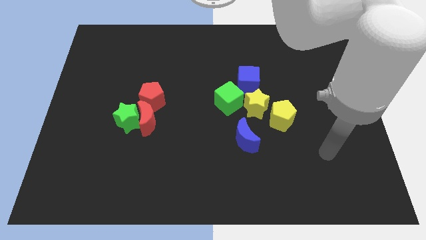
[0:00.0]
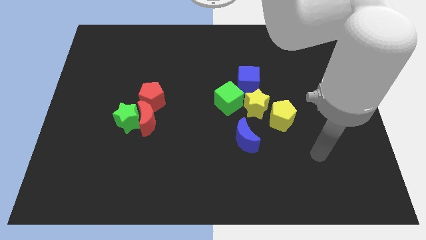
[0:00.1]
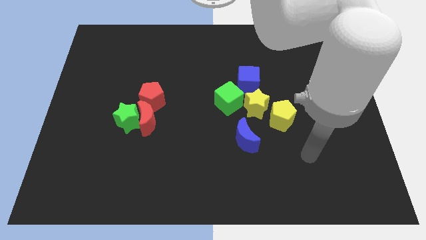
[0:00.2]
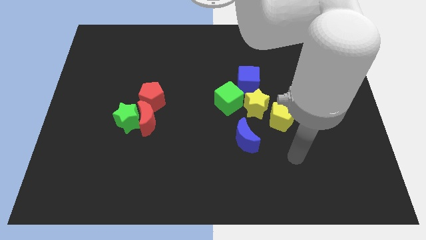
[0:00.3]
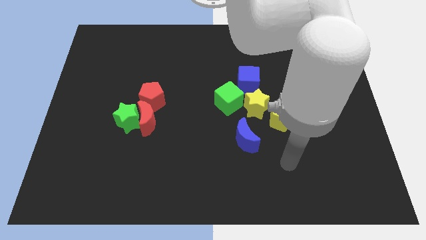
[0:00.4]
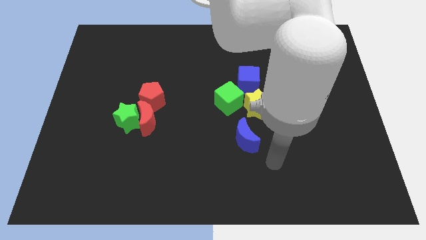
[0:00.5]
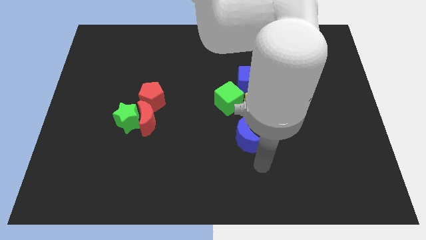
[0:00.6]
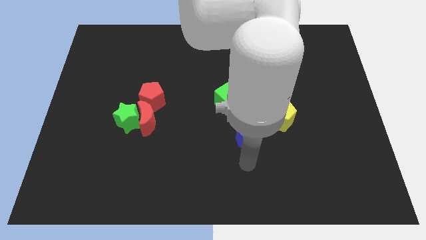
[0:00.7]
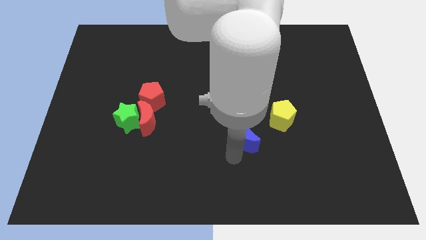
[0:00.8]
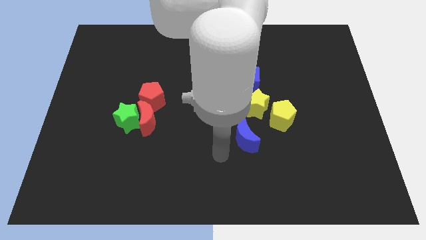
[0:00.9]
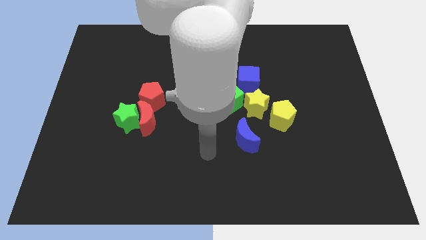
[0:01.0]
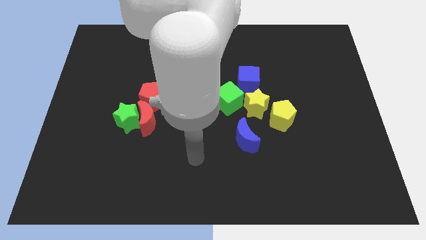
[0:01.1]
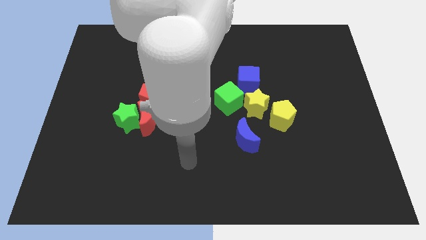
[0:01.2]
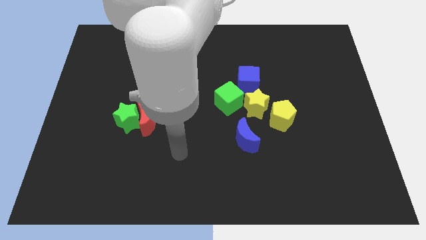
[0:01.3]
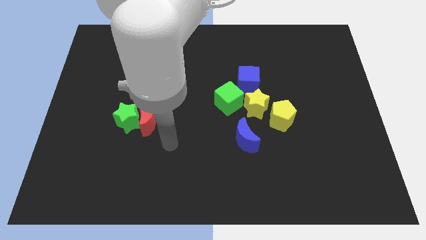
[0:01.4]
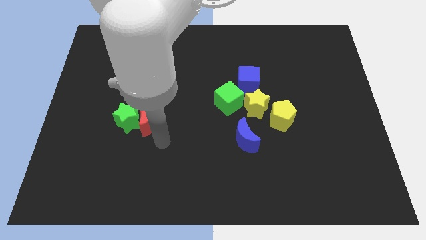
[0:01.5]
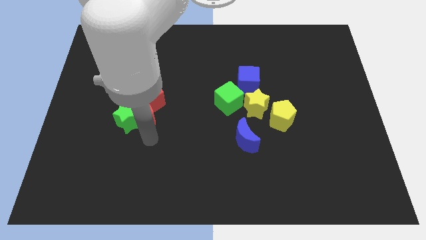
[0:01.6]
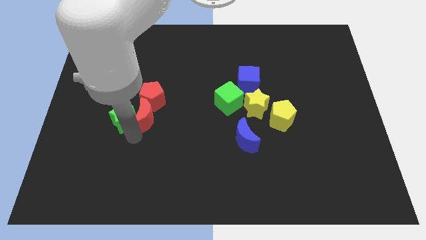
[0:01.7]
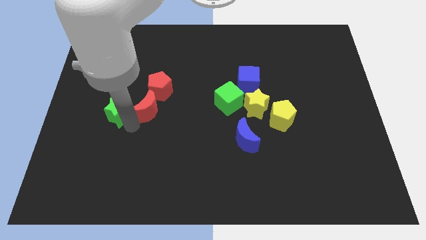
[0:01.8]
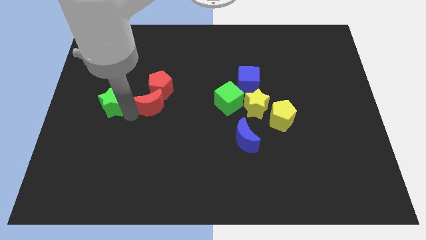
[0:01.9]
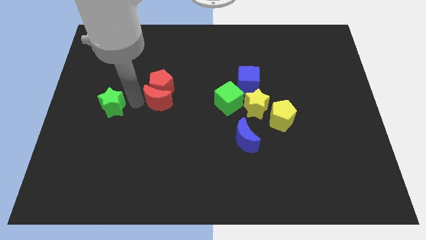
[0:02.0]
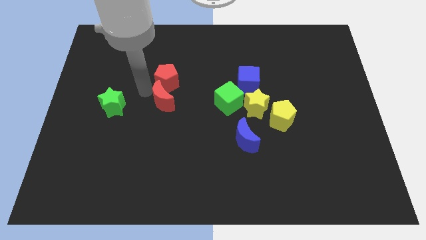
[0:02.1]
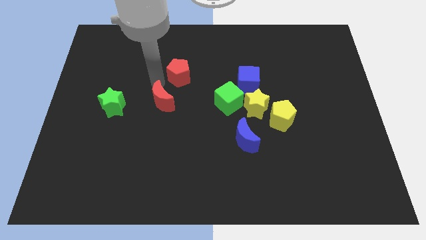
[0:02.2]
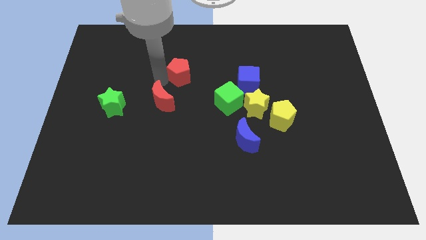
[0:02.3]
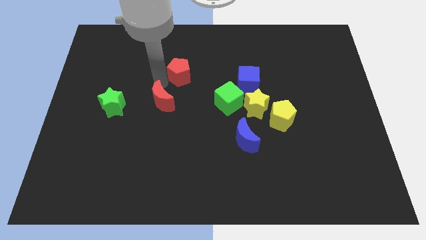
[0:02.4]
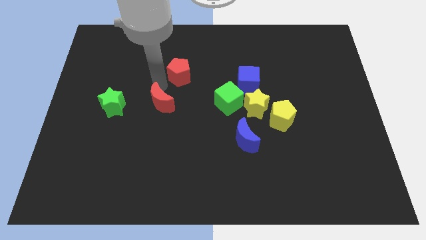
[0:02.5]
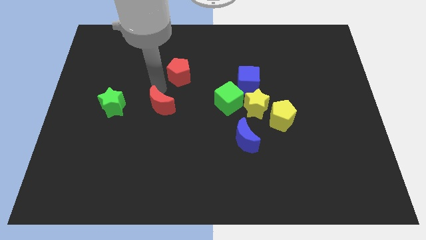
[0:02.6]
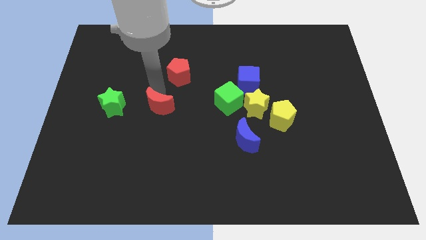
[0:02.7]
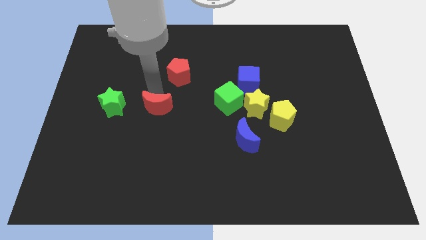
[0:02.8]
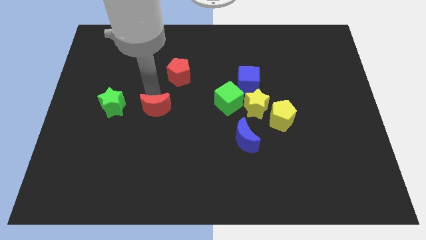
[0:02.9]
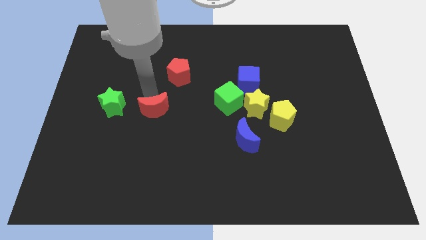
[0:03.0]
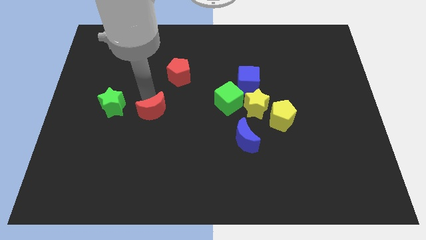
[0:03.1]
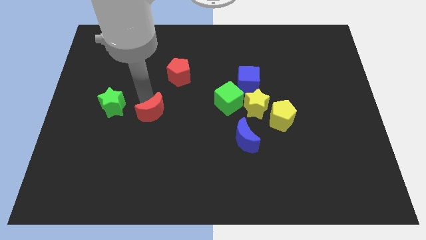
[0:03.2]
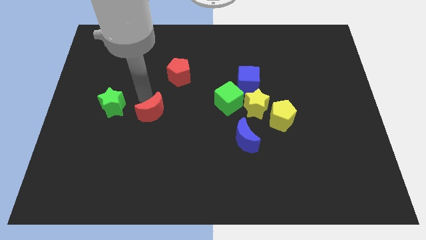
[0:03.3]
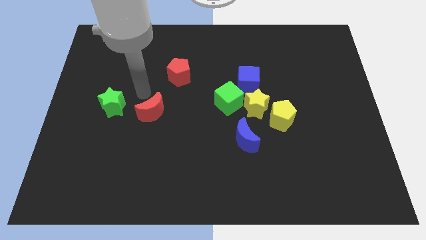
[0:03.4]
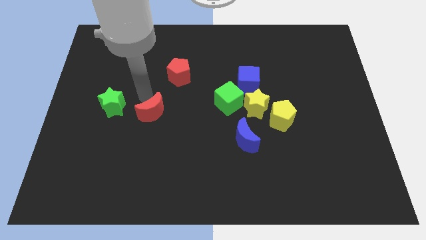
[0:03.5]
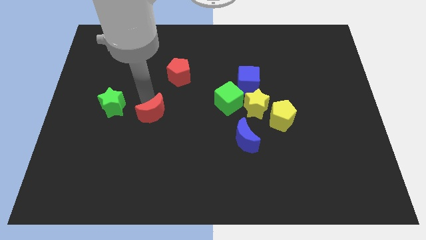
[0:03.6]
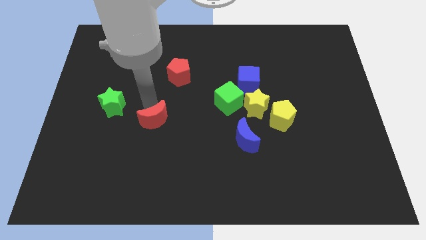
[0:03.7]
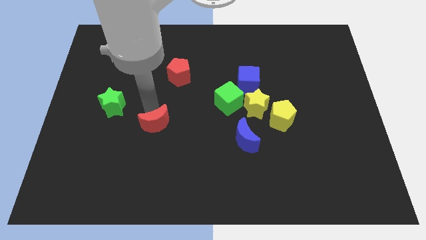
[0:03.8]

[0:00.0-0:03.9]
move the red moon away from the green star and red pentagon

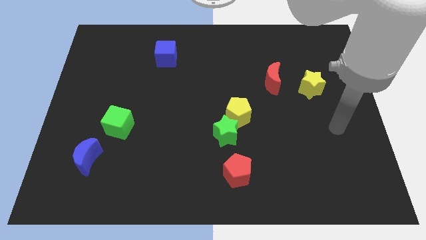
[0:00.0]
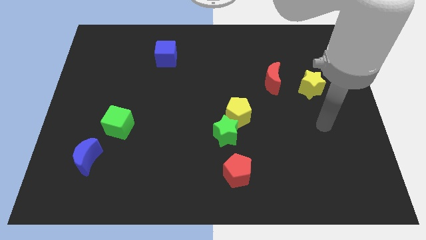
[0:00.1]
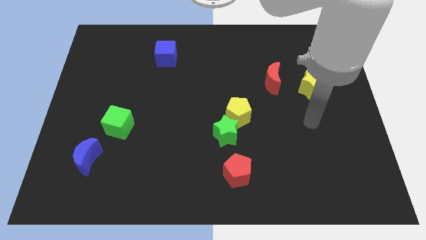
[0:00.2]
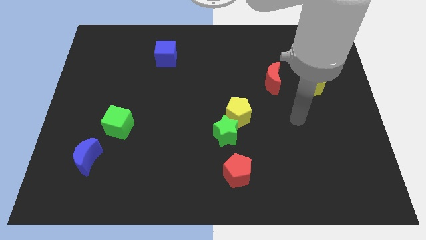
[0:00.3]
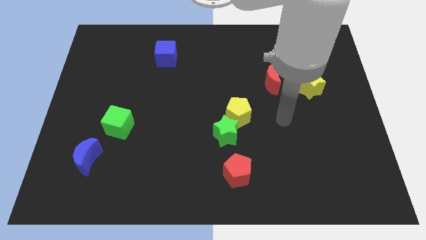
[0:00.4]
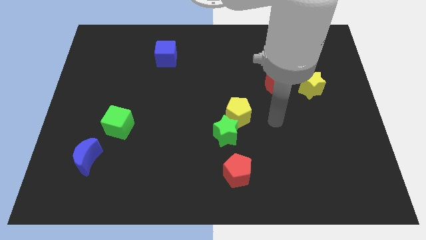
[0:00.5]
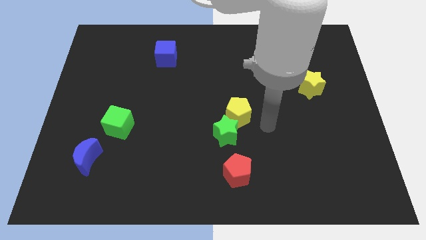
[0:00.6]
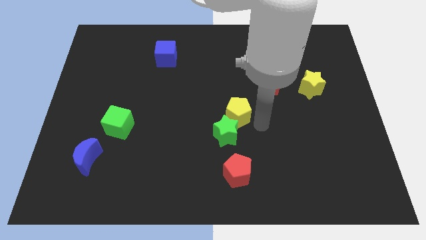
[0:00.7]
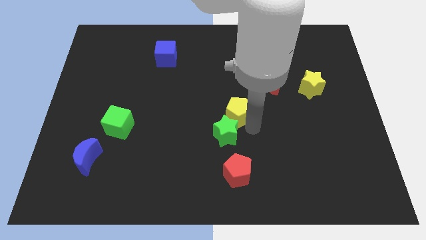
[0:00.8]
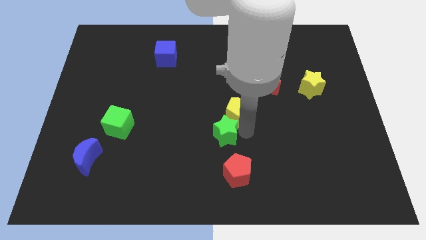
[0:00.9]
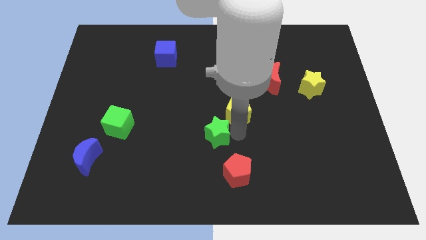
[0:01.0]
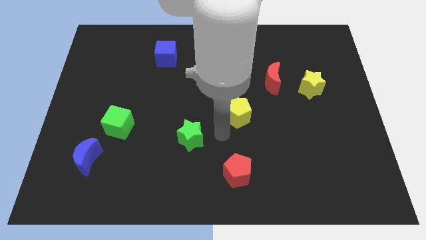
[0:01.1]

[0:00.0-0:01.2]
separate the yellow pentagon from the green star

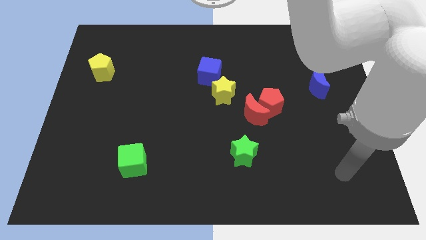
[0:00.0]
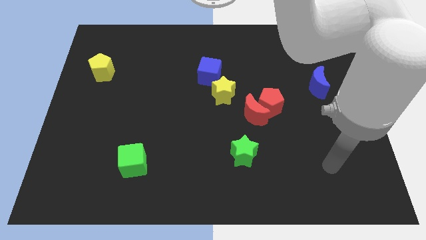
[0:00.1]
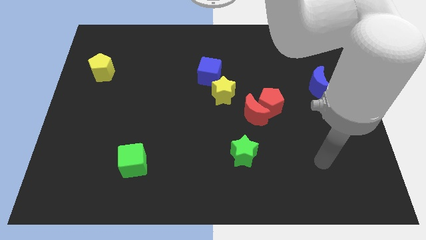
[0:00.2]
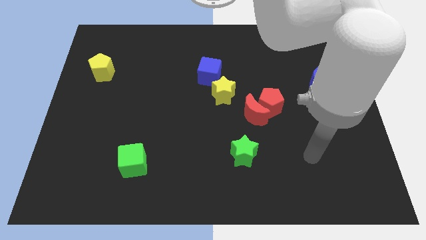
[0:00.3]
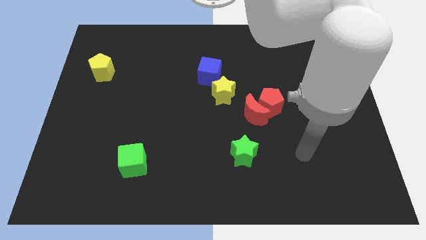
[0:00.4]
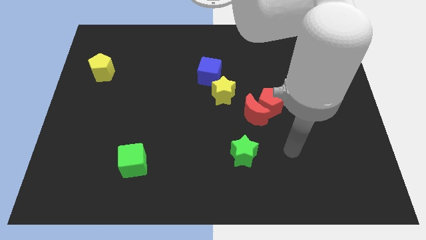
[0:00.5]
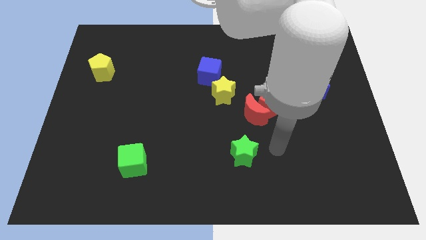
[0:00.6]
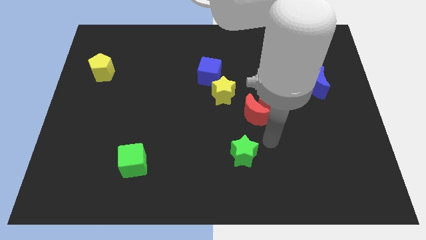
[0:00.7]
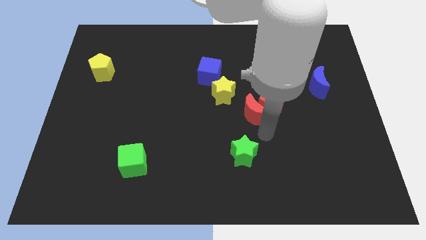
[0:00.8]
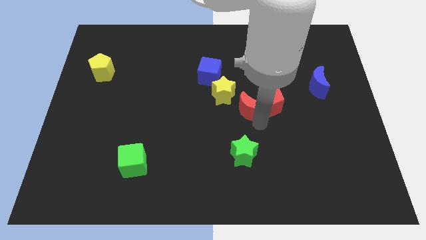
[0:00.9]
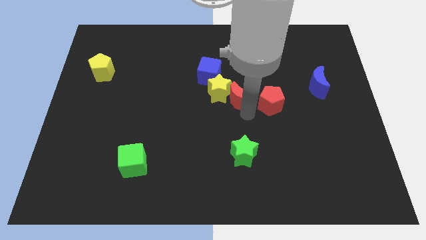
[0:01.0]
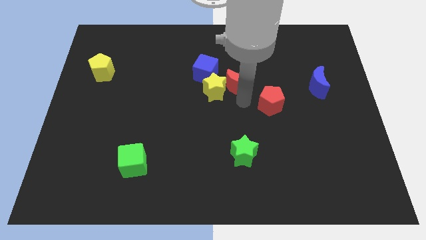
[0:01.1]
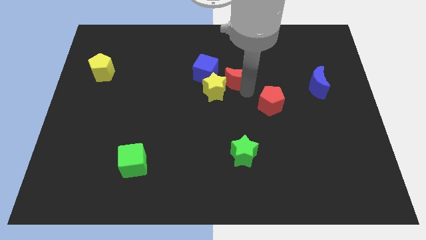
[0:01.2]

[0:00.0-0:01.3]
move the red pentagon away from the red moon

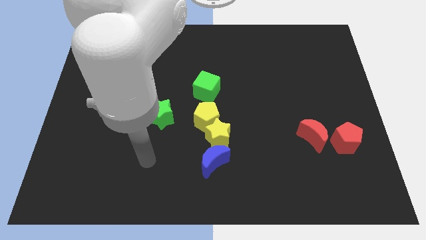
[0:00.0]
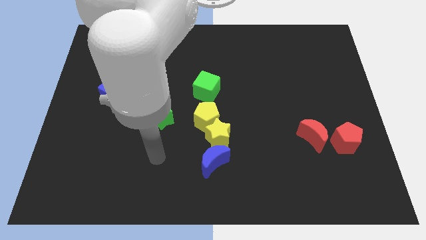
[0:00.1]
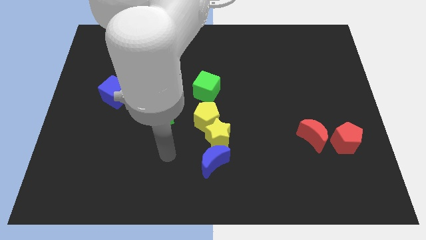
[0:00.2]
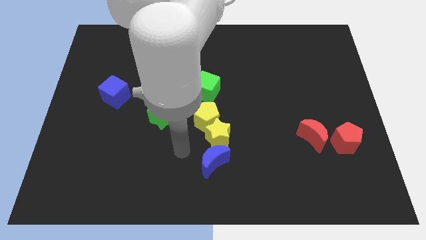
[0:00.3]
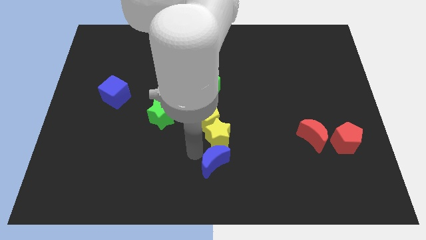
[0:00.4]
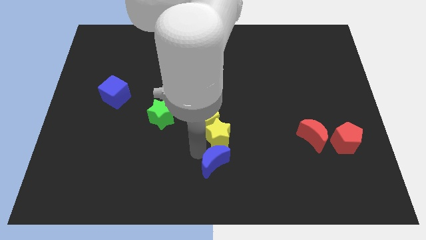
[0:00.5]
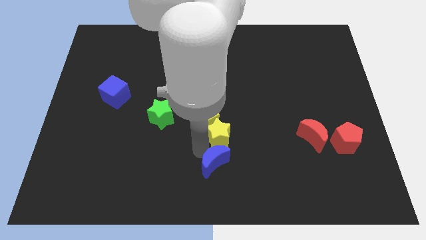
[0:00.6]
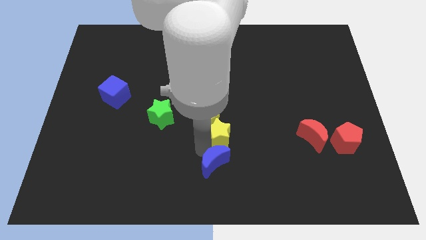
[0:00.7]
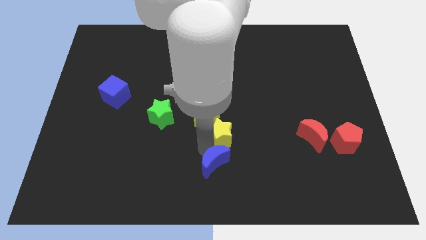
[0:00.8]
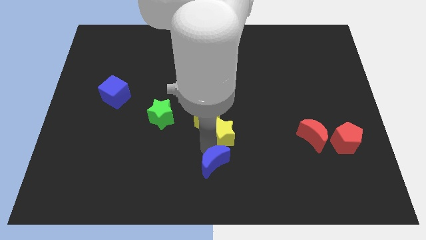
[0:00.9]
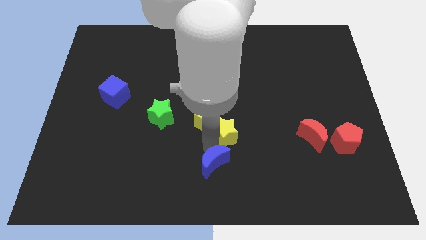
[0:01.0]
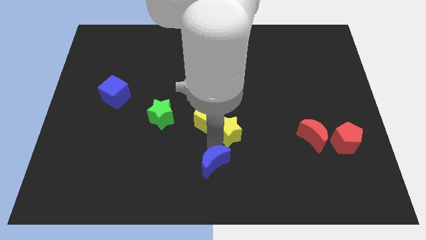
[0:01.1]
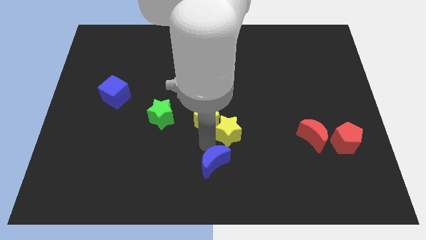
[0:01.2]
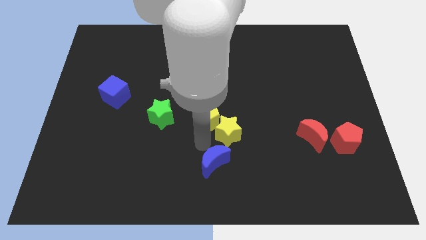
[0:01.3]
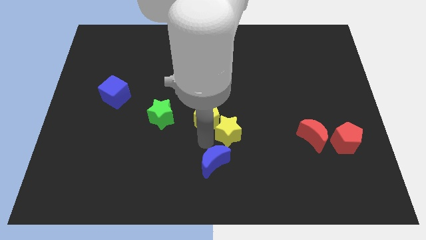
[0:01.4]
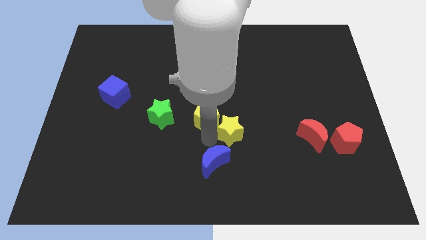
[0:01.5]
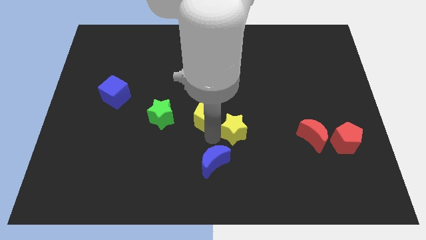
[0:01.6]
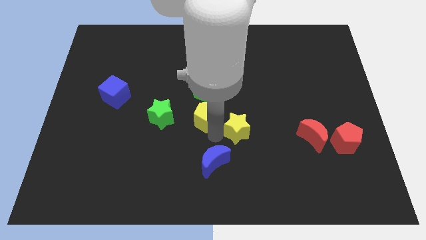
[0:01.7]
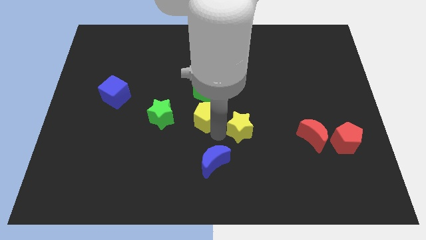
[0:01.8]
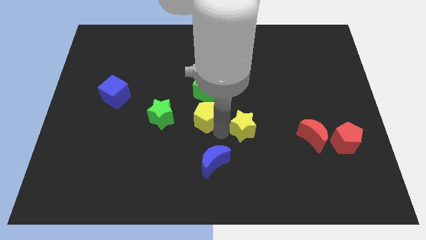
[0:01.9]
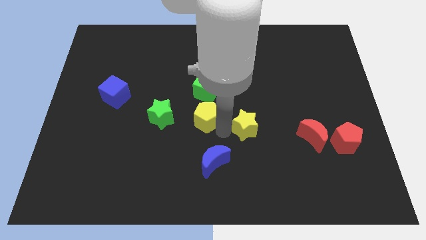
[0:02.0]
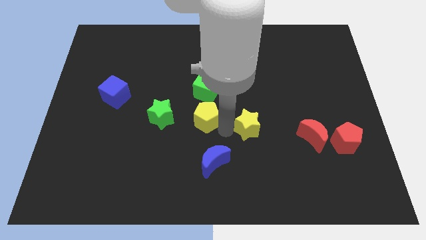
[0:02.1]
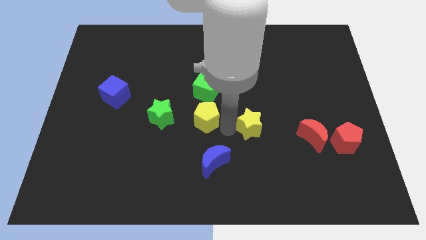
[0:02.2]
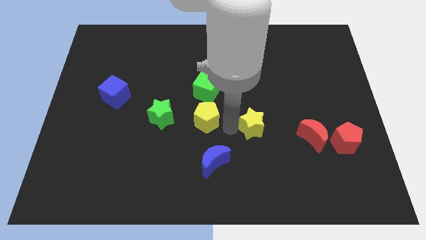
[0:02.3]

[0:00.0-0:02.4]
pull the yellow star apart from the yellow pentagon and blue moon

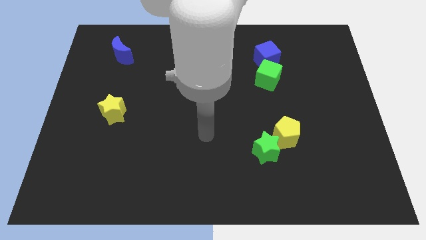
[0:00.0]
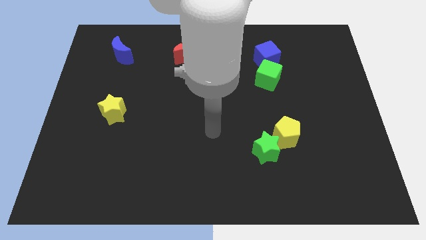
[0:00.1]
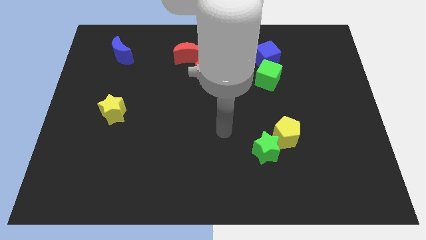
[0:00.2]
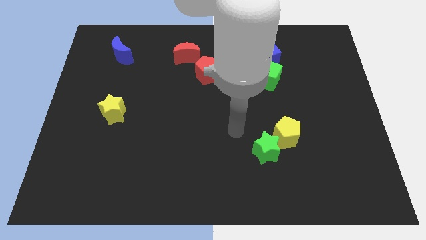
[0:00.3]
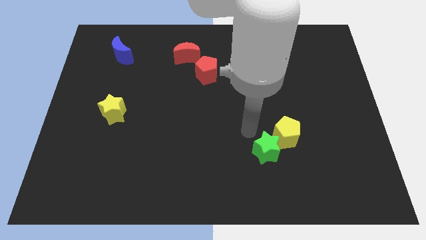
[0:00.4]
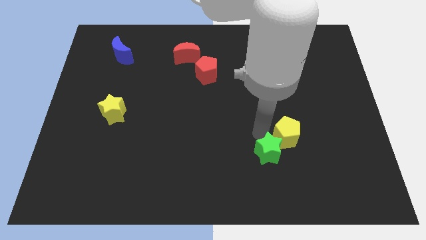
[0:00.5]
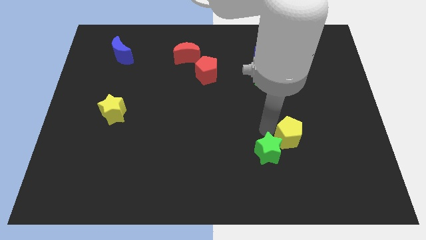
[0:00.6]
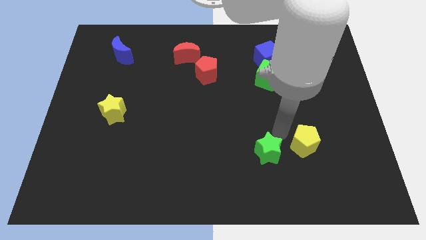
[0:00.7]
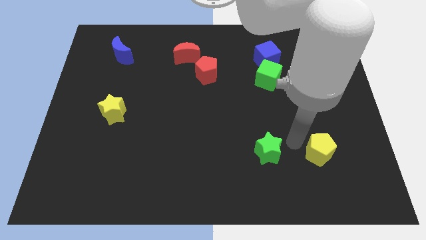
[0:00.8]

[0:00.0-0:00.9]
move the green star away from the yellow pentagon
